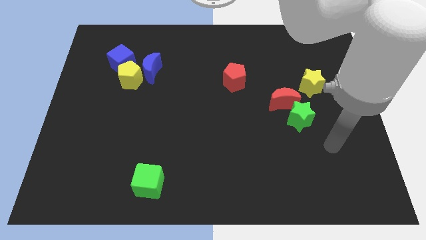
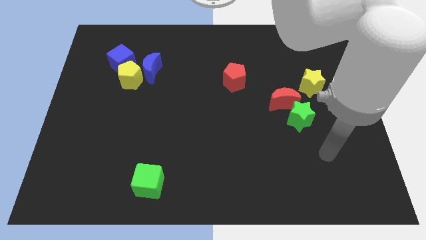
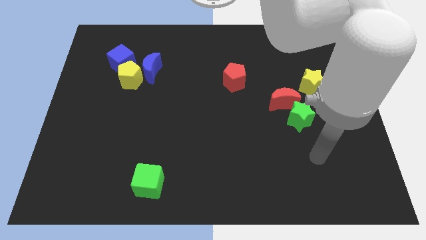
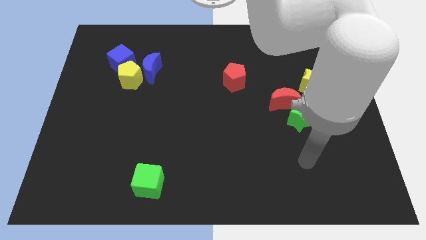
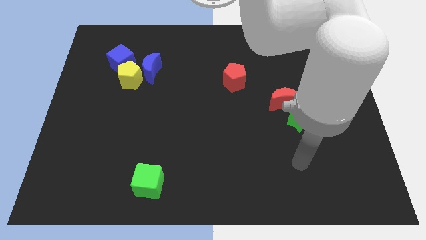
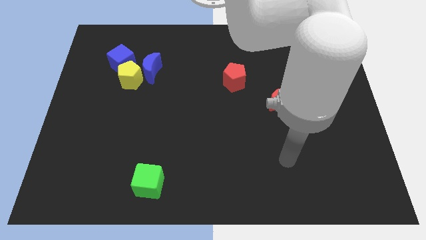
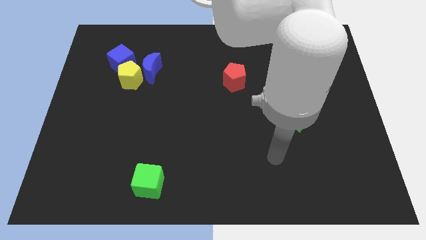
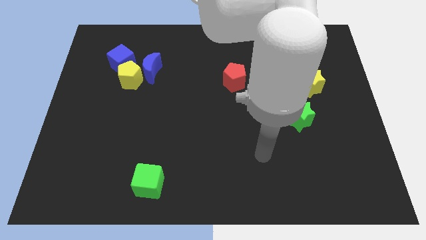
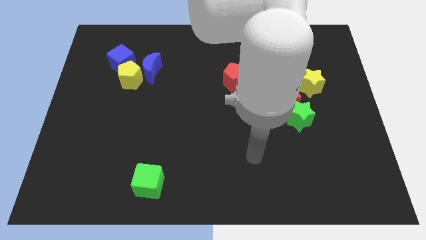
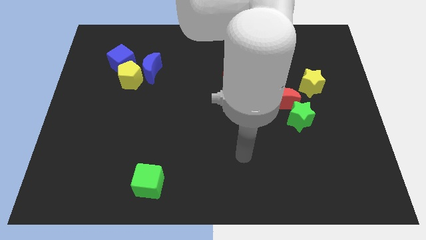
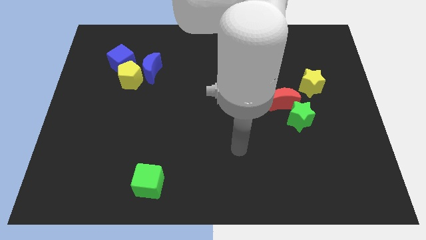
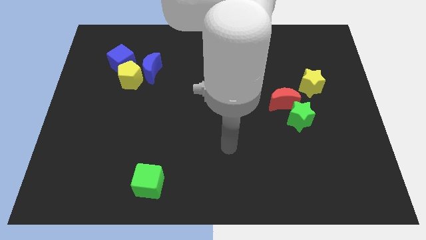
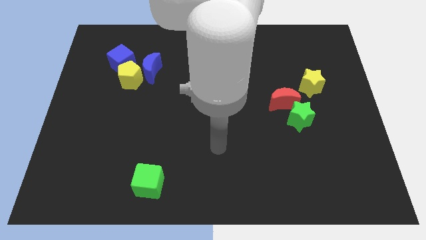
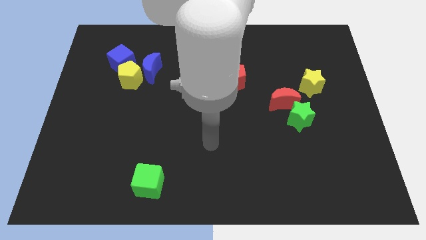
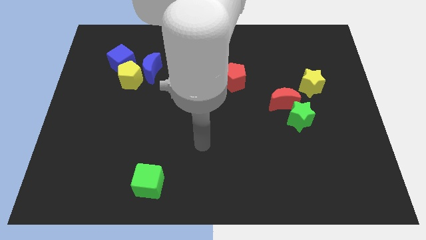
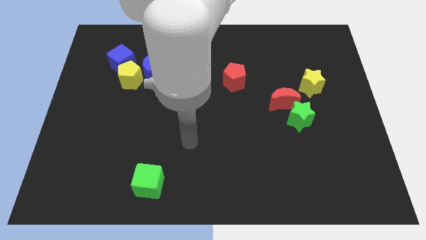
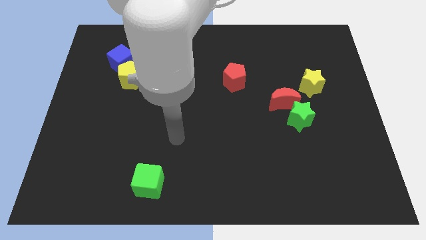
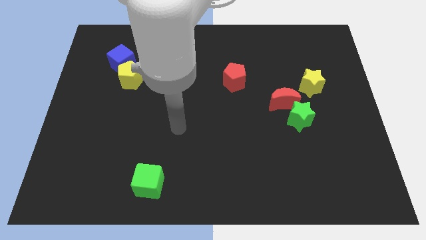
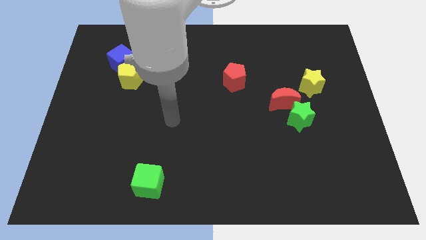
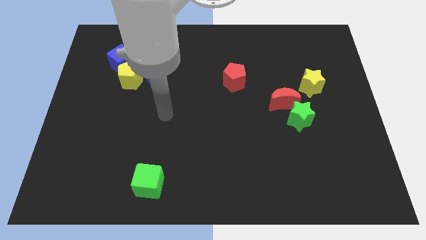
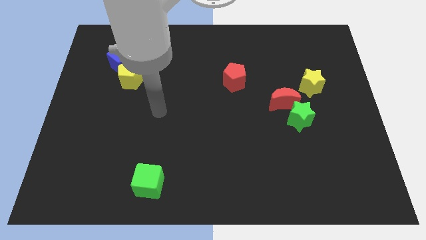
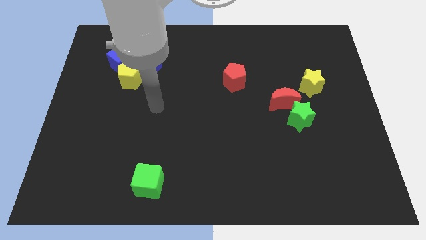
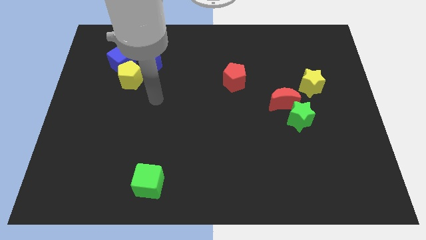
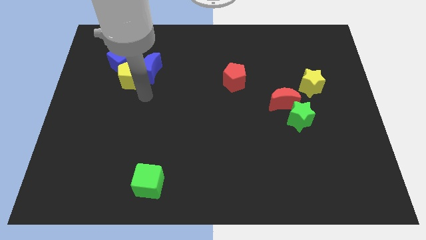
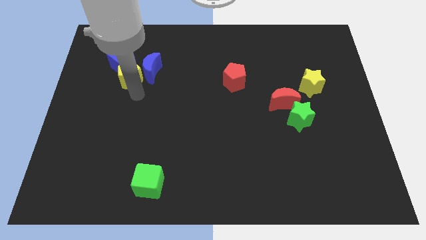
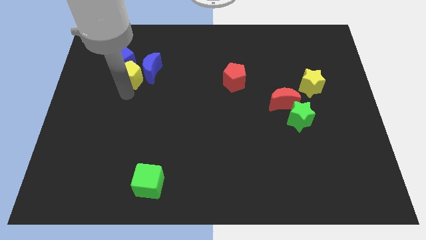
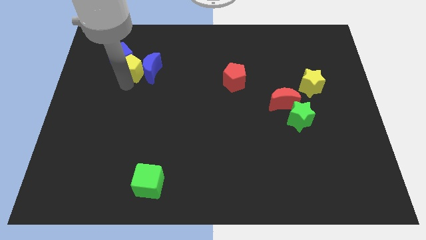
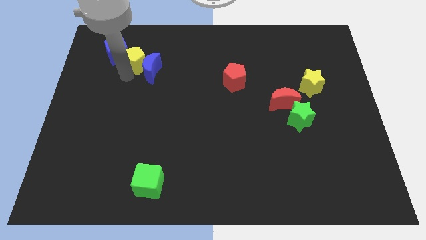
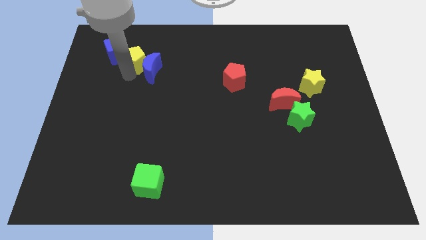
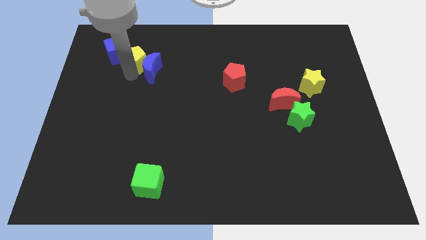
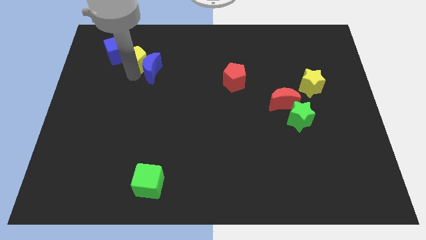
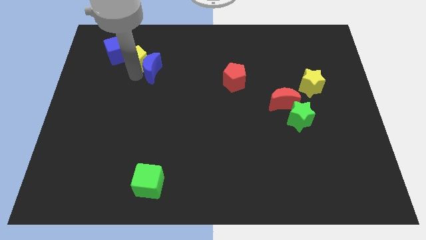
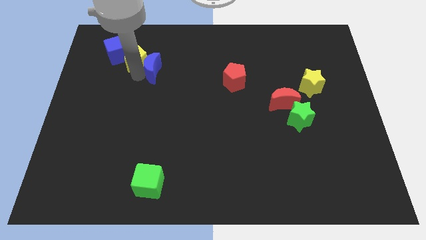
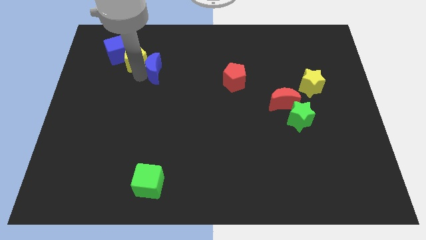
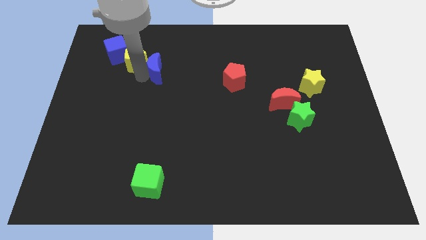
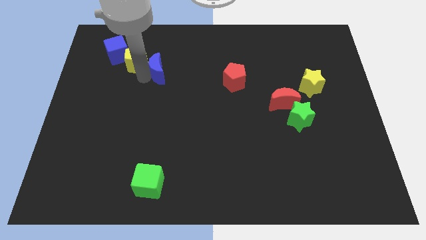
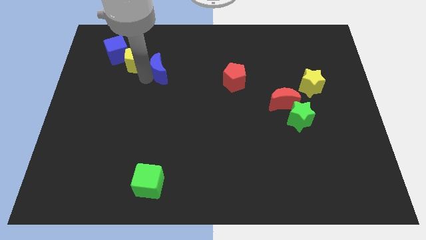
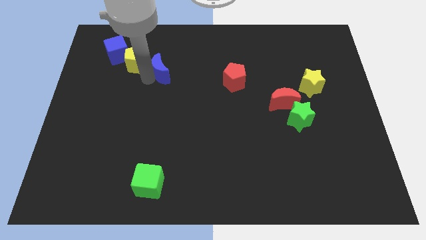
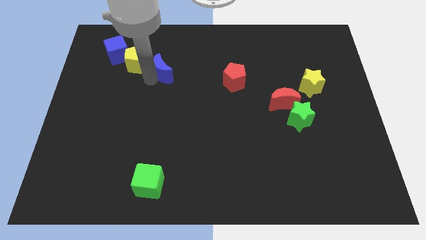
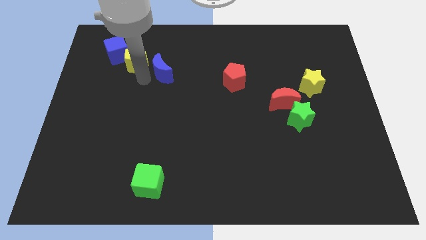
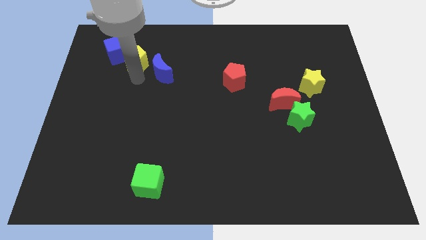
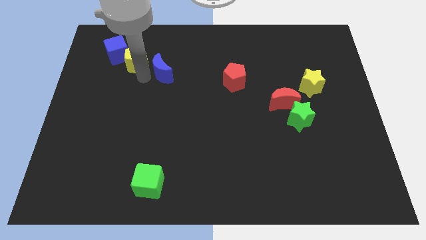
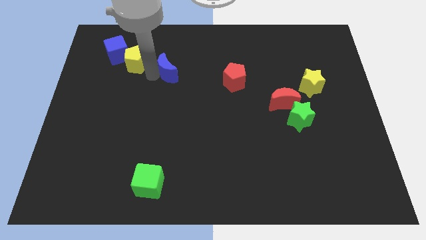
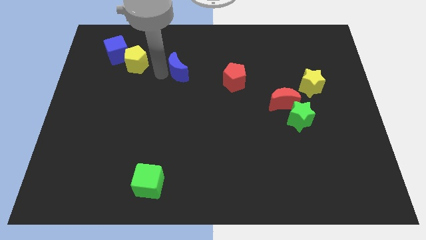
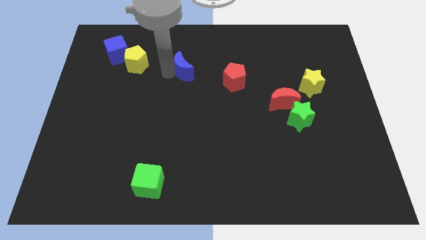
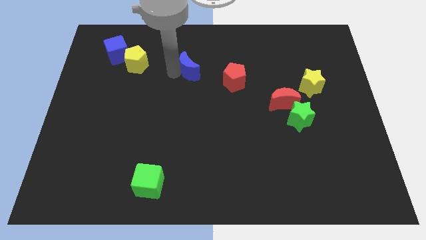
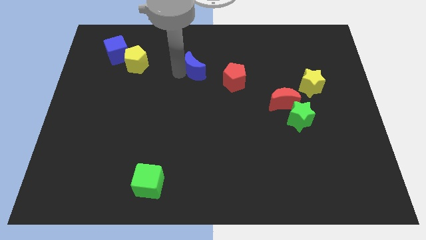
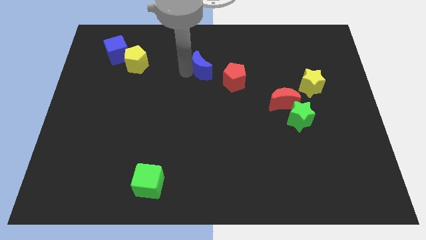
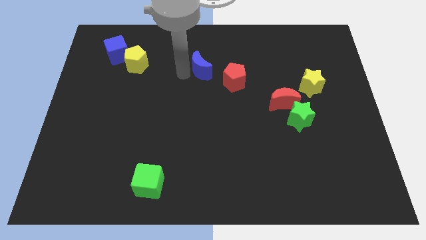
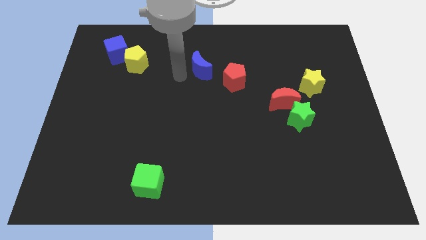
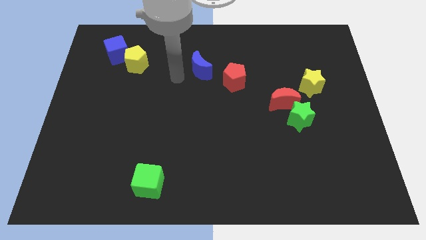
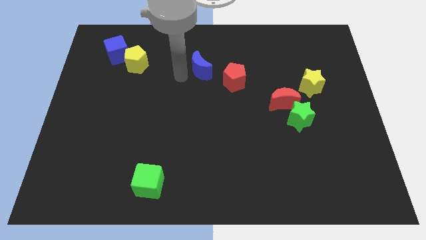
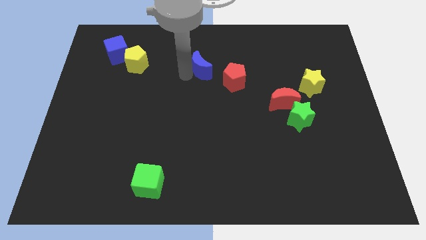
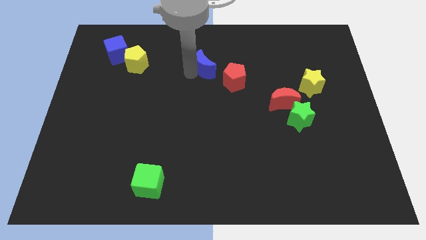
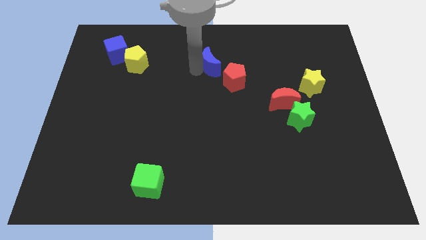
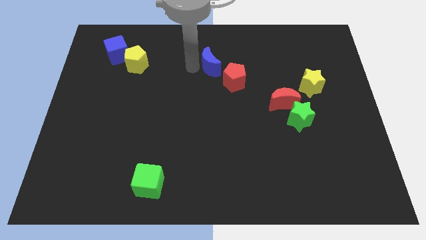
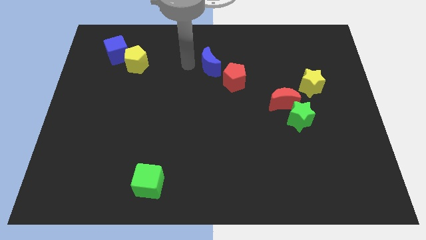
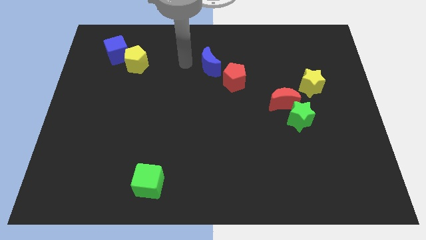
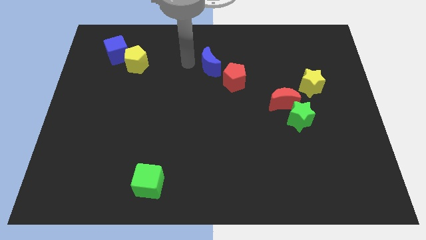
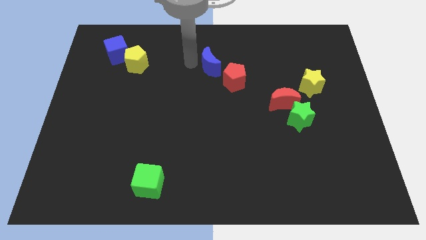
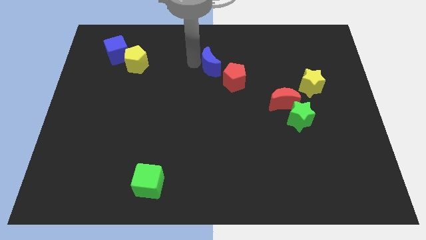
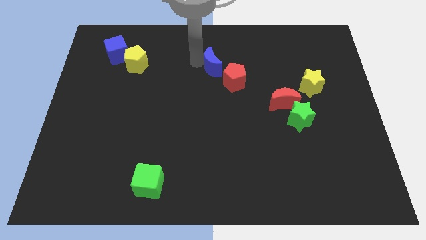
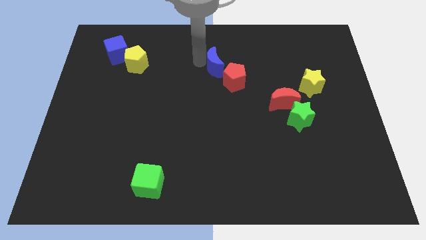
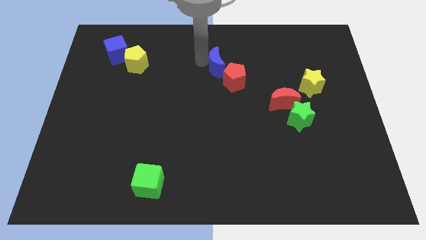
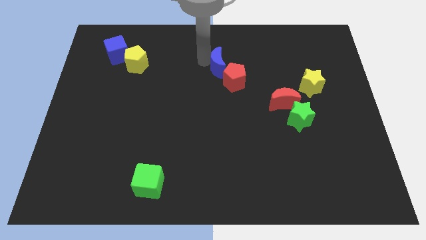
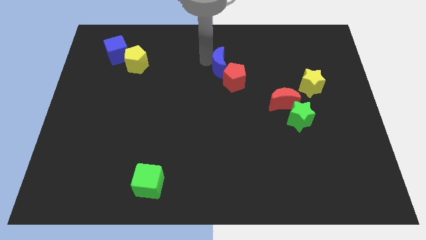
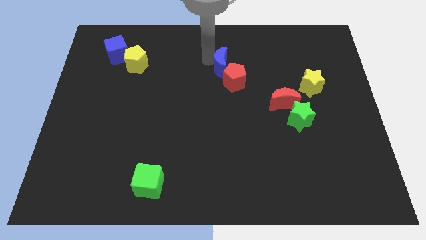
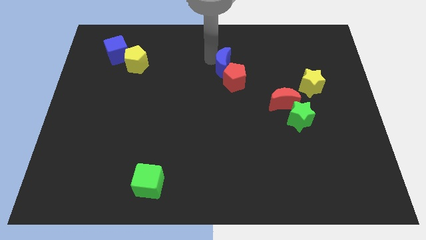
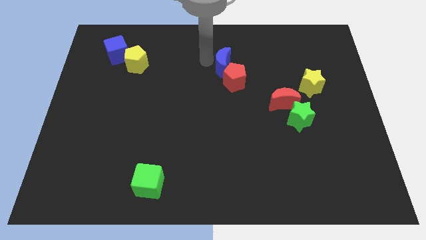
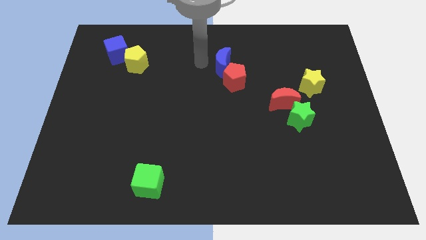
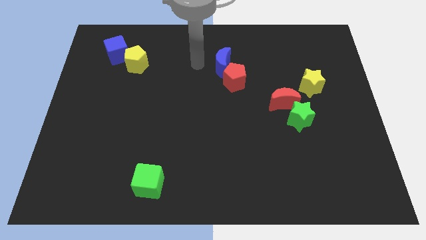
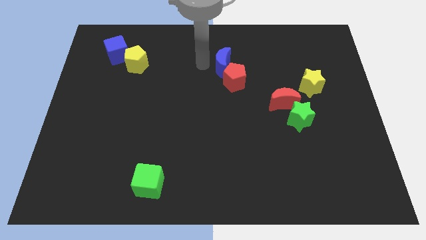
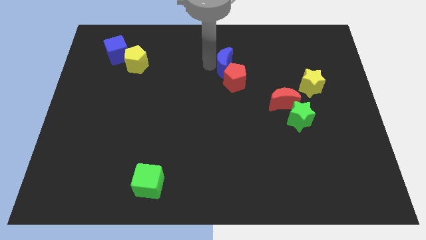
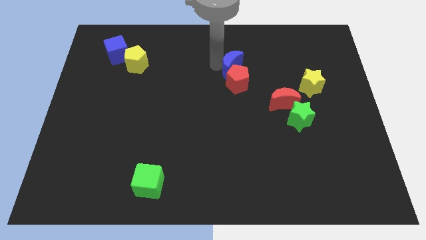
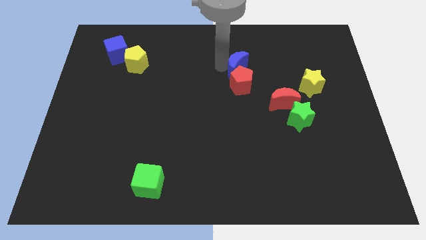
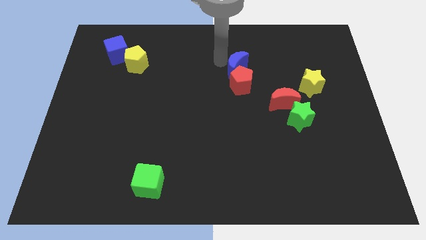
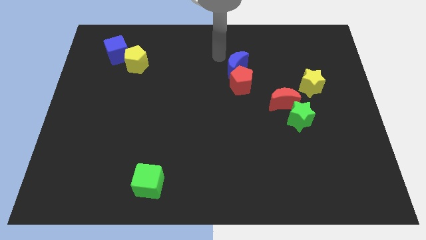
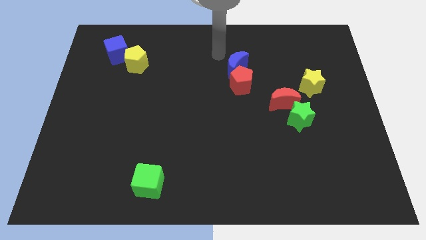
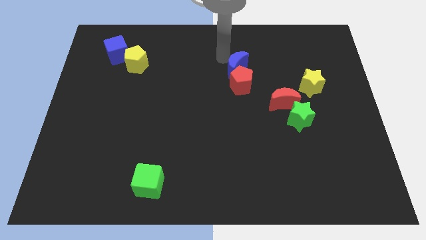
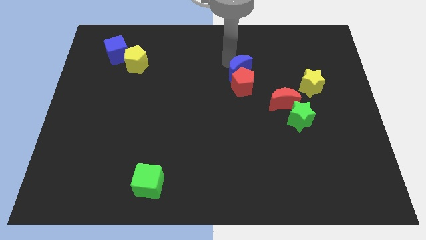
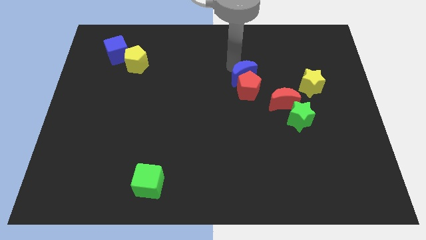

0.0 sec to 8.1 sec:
move the blue moon to the top left side of the red moon
